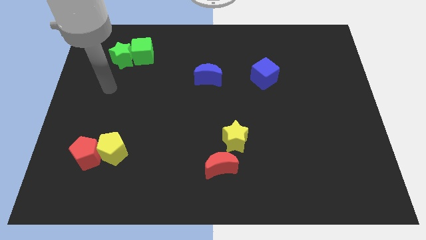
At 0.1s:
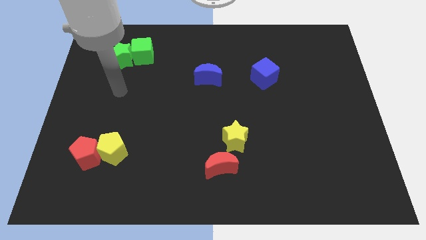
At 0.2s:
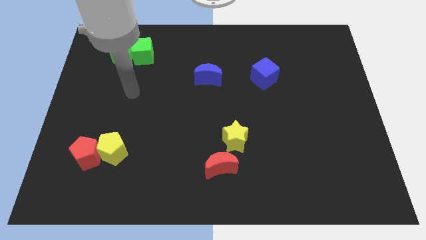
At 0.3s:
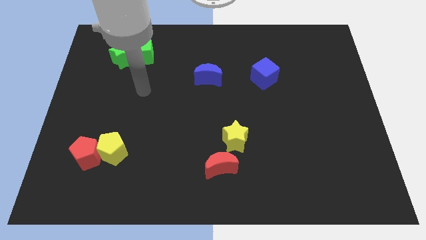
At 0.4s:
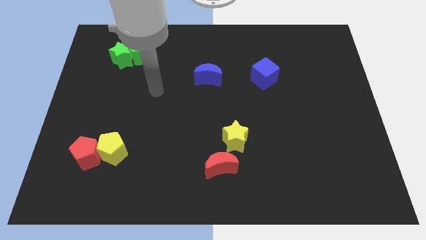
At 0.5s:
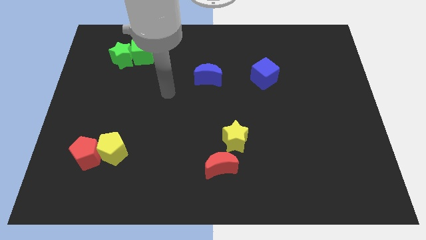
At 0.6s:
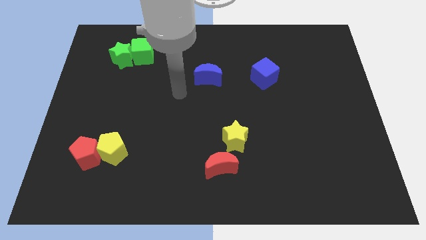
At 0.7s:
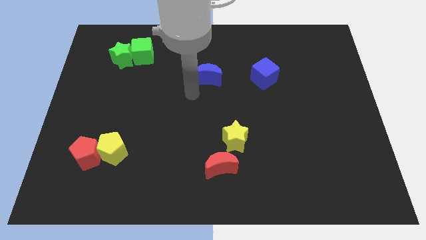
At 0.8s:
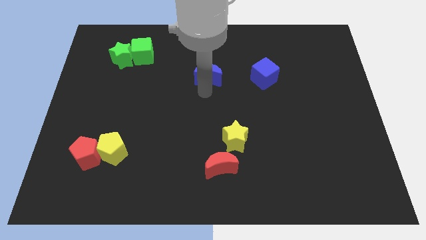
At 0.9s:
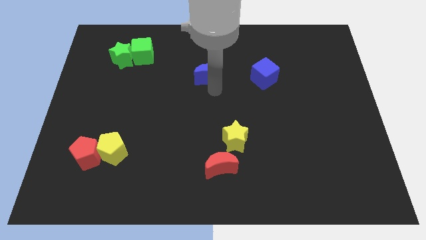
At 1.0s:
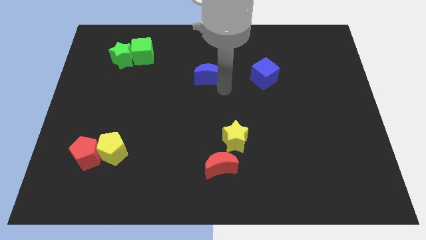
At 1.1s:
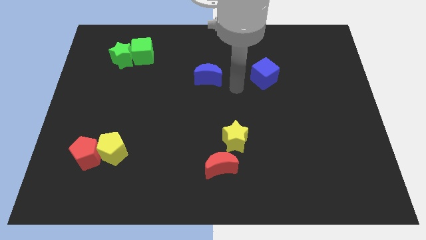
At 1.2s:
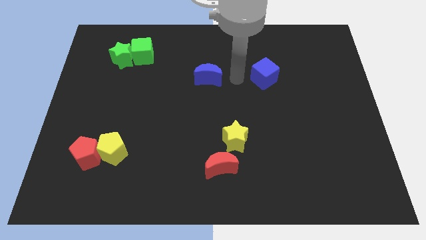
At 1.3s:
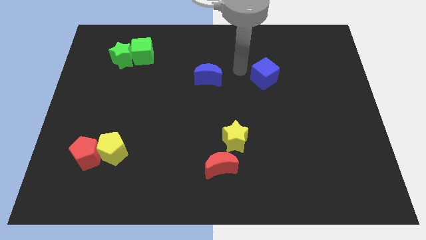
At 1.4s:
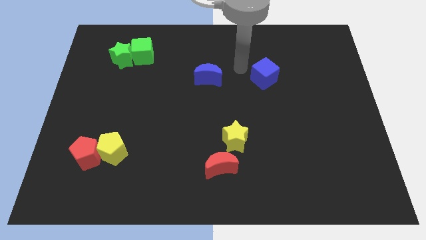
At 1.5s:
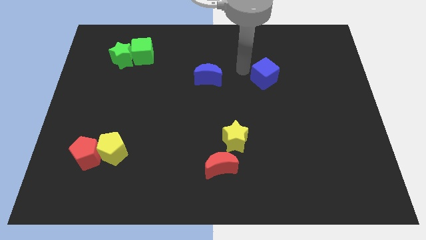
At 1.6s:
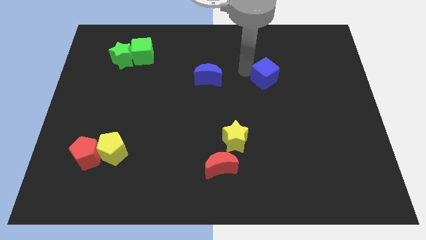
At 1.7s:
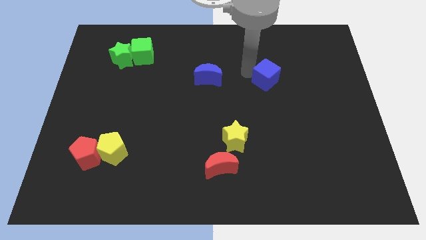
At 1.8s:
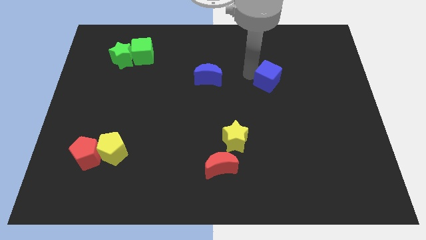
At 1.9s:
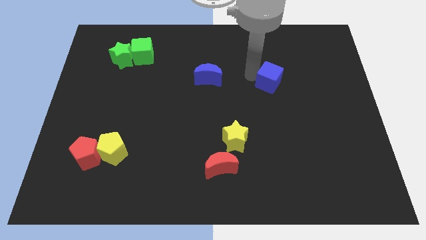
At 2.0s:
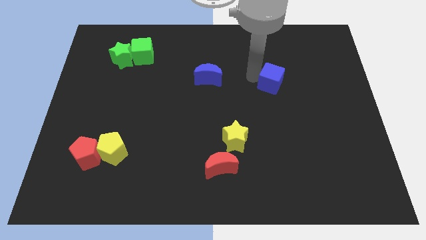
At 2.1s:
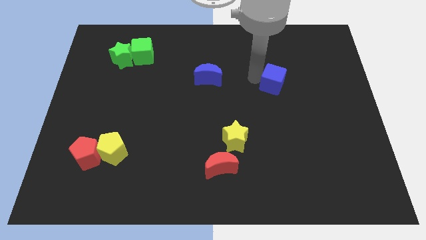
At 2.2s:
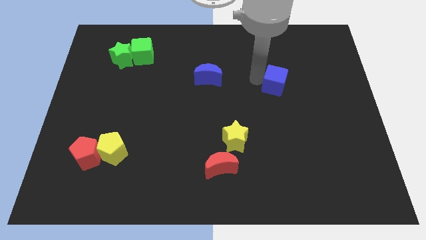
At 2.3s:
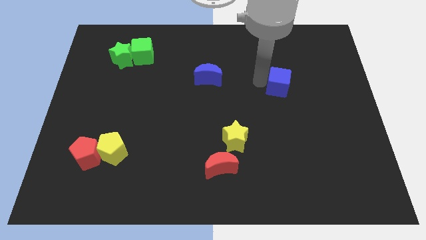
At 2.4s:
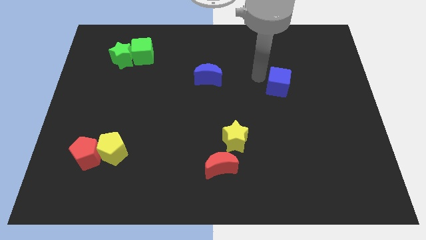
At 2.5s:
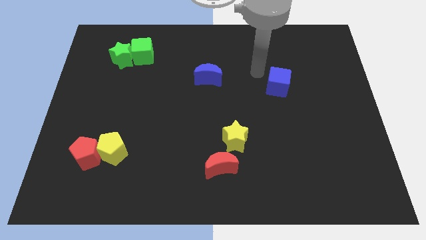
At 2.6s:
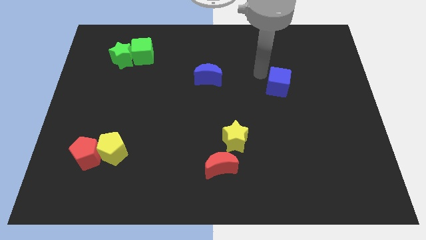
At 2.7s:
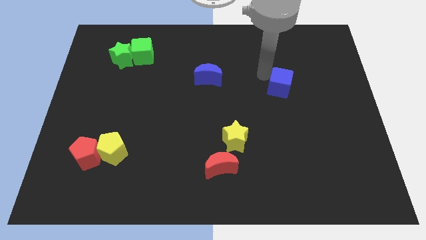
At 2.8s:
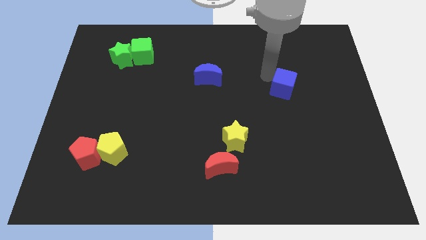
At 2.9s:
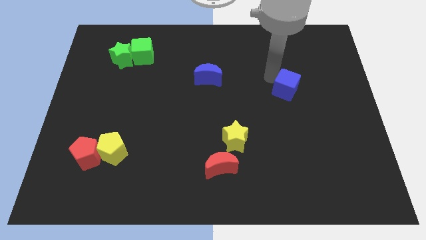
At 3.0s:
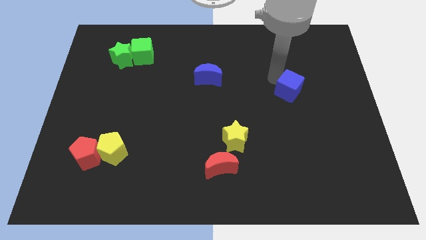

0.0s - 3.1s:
move the blue cube diagonally down and right somewhat

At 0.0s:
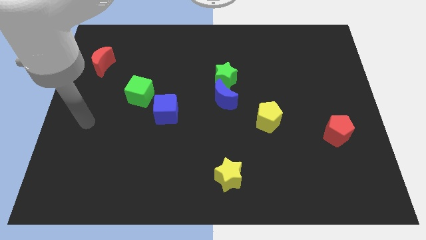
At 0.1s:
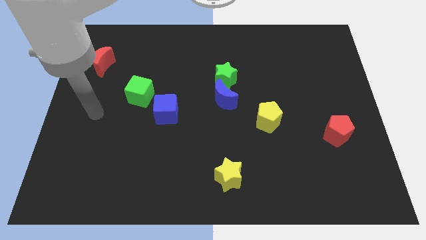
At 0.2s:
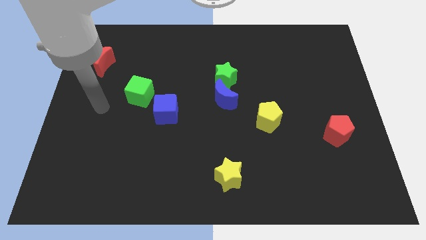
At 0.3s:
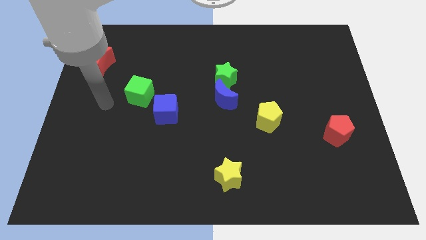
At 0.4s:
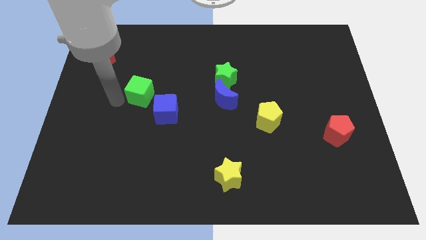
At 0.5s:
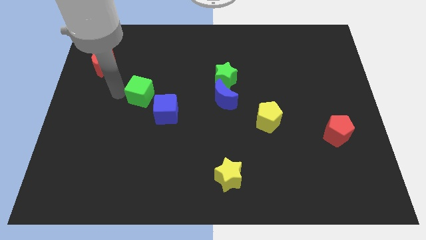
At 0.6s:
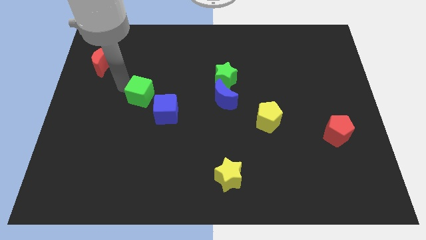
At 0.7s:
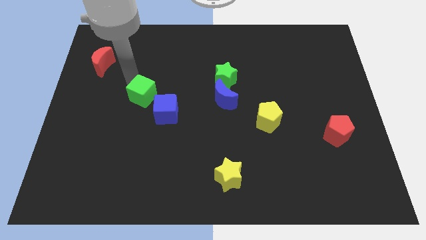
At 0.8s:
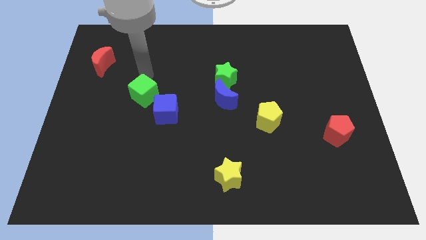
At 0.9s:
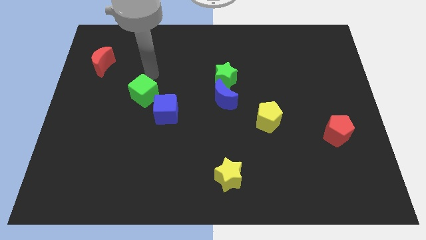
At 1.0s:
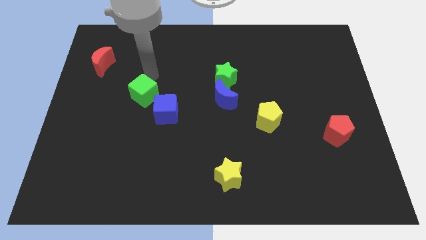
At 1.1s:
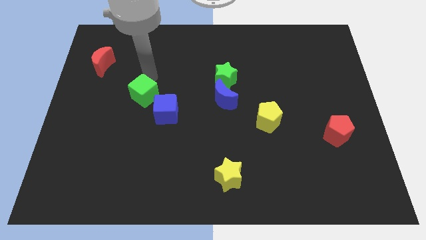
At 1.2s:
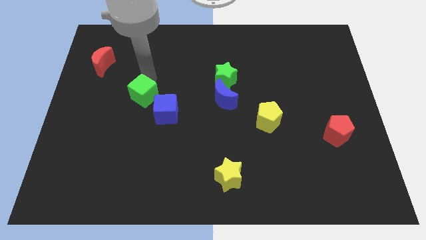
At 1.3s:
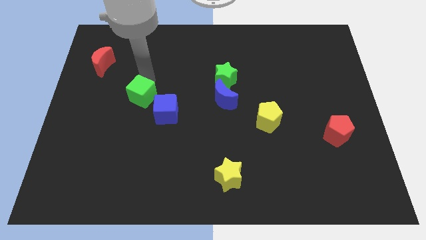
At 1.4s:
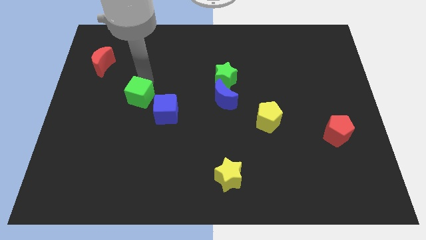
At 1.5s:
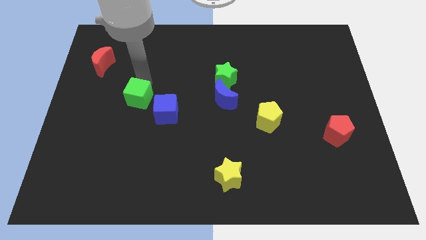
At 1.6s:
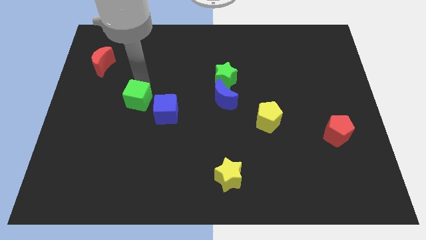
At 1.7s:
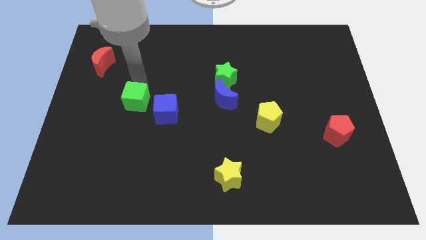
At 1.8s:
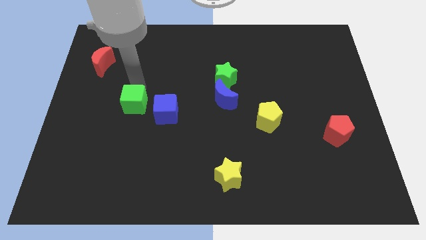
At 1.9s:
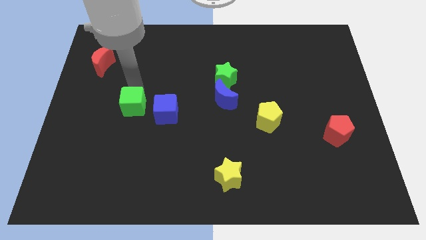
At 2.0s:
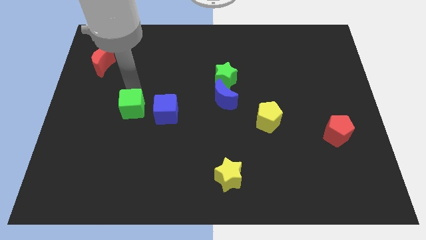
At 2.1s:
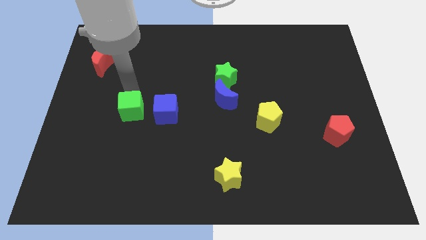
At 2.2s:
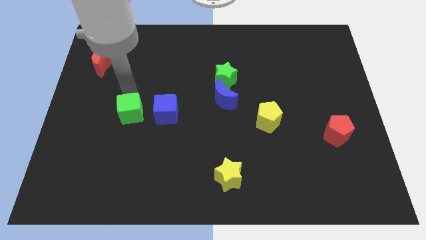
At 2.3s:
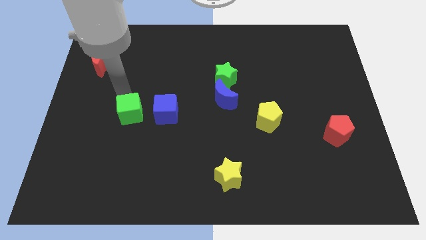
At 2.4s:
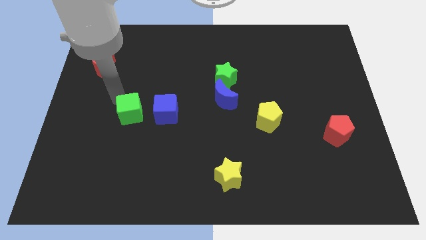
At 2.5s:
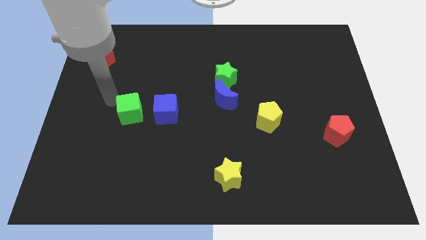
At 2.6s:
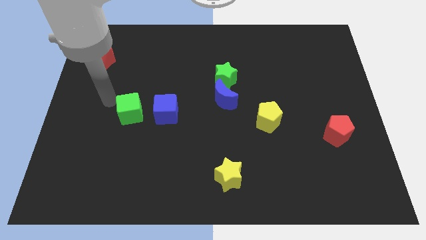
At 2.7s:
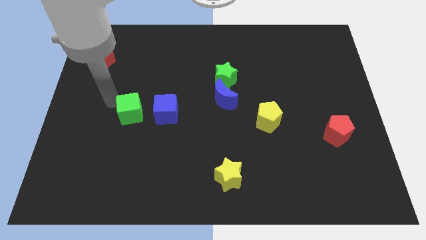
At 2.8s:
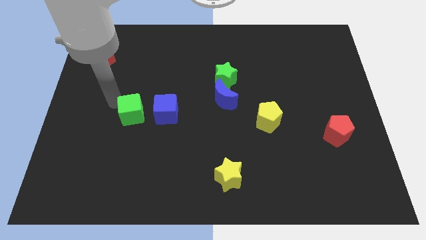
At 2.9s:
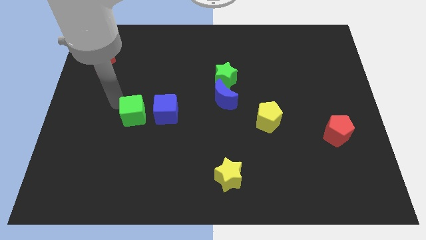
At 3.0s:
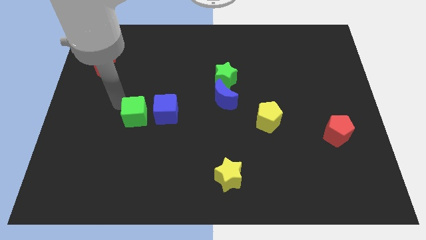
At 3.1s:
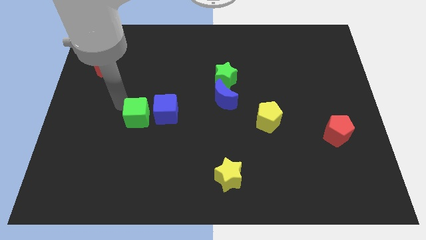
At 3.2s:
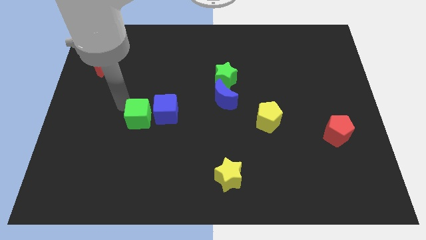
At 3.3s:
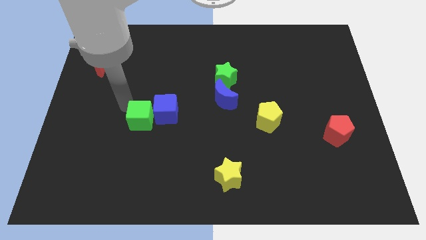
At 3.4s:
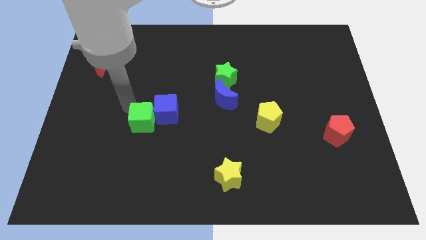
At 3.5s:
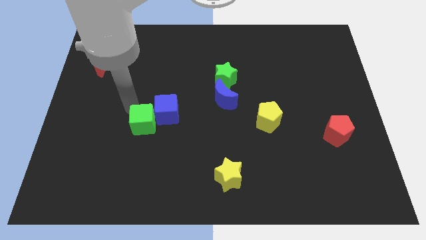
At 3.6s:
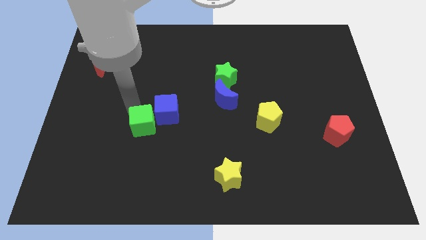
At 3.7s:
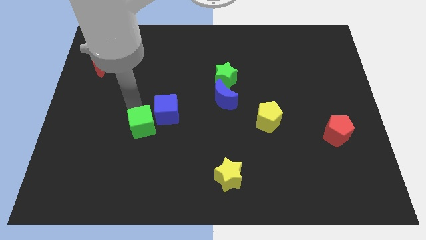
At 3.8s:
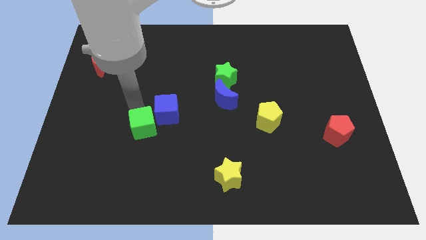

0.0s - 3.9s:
move the green cube downwards and to the right a little bit

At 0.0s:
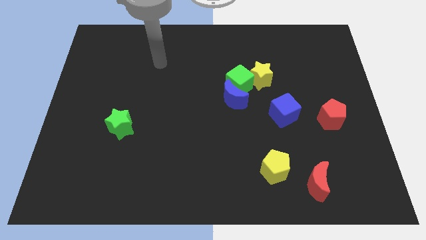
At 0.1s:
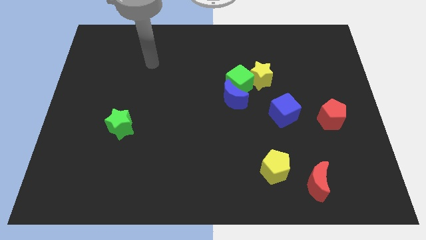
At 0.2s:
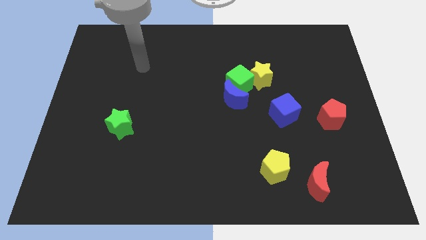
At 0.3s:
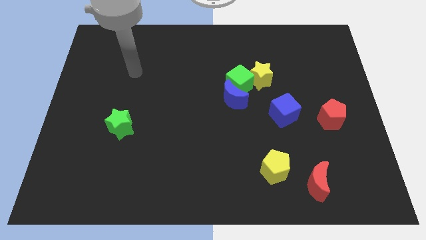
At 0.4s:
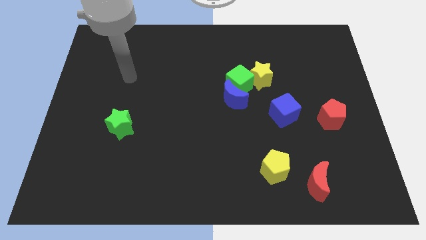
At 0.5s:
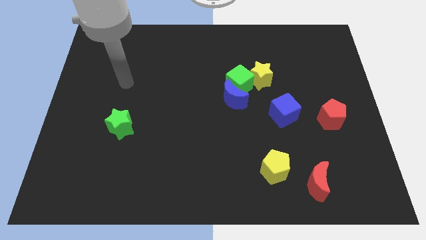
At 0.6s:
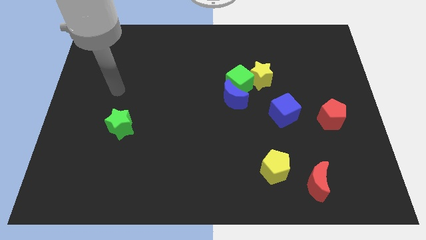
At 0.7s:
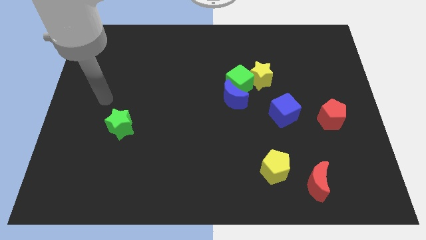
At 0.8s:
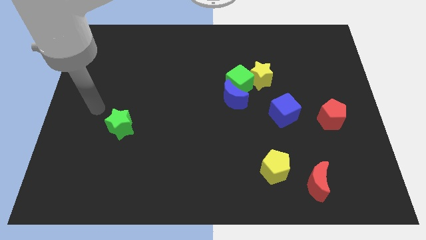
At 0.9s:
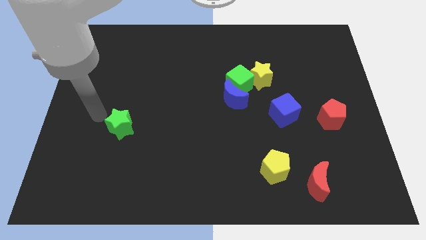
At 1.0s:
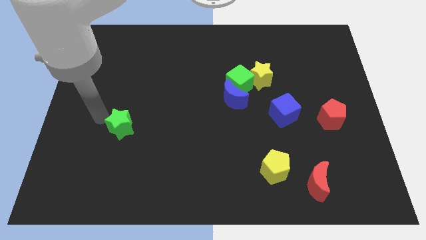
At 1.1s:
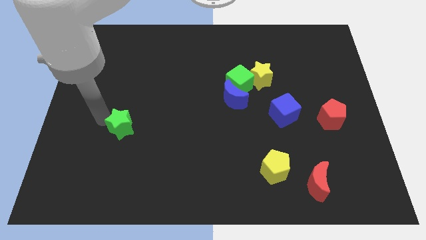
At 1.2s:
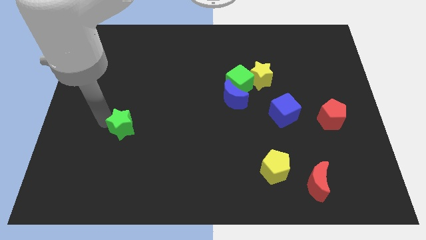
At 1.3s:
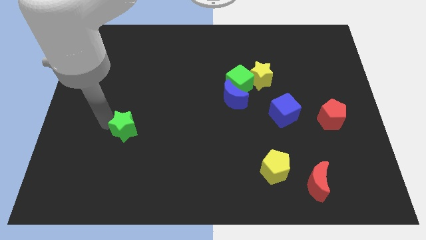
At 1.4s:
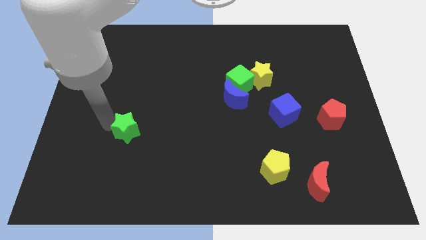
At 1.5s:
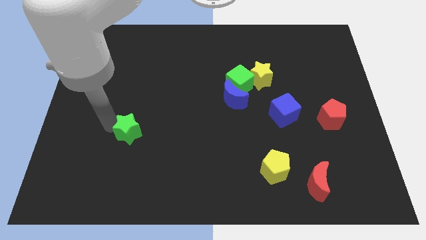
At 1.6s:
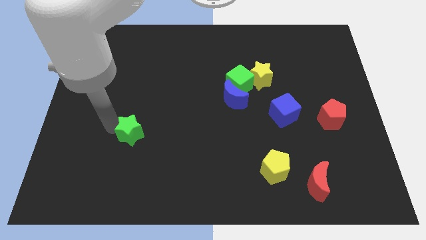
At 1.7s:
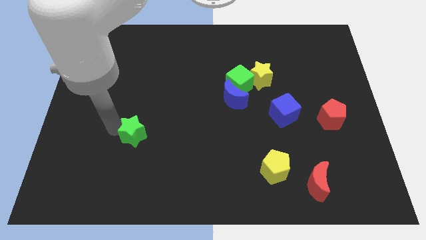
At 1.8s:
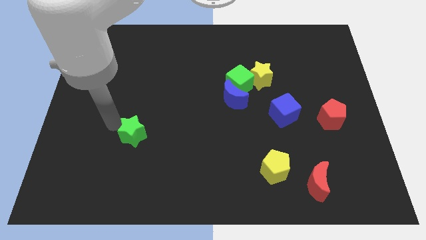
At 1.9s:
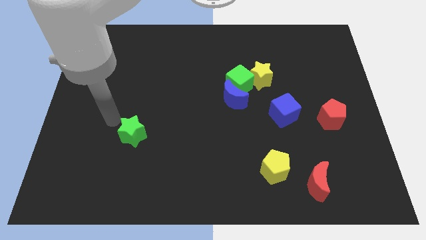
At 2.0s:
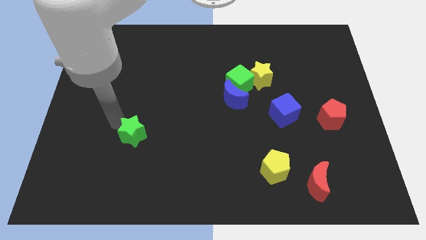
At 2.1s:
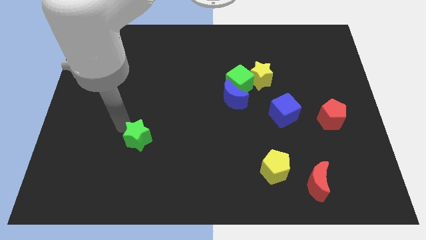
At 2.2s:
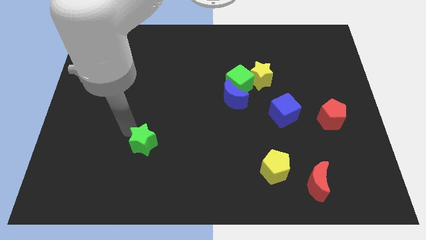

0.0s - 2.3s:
push the green star a little downwards and to the right
